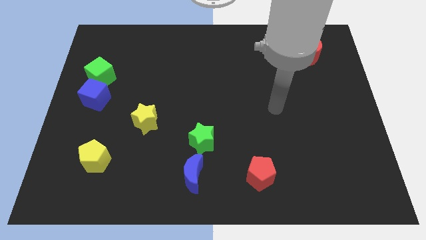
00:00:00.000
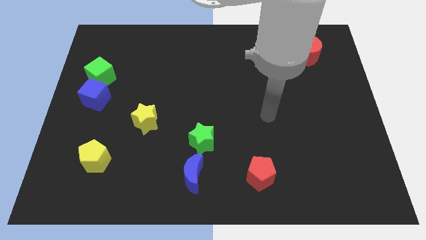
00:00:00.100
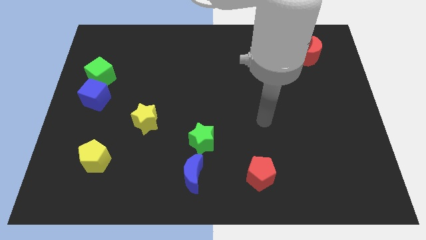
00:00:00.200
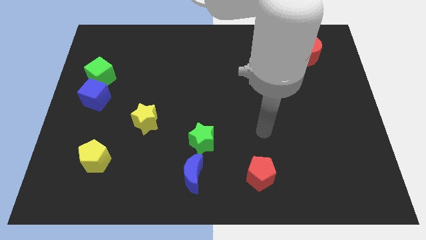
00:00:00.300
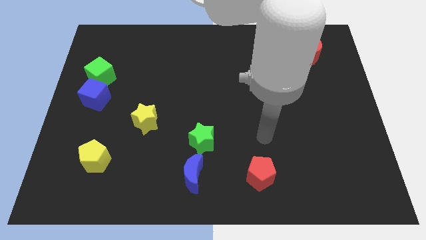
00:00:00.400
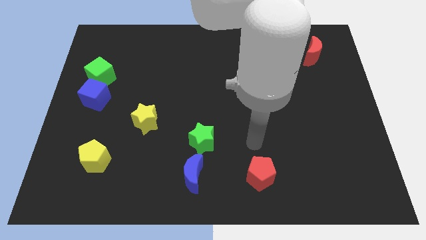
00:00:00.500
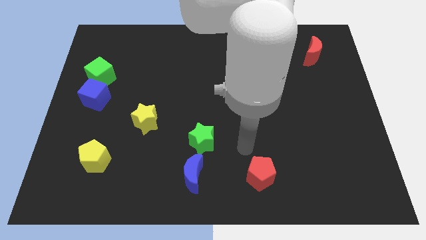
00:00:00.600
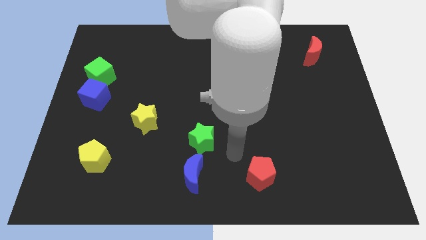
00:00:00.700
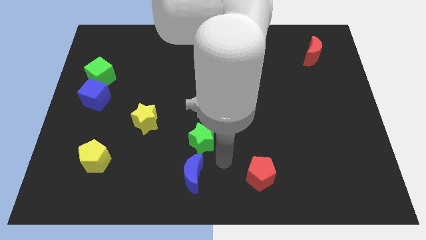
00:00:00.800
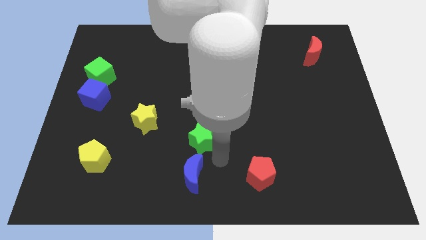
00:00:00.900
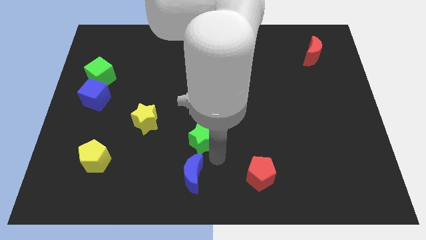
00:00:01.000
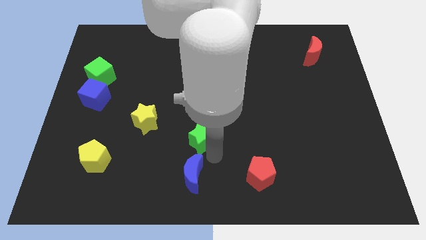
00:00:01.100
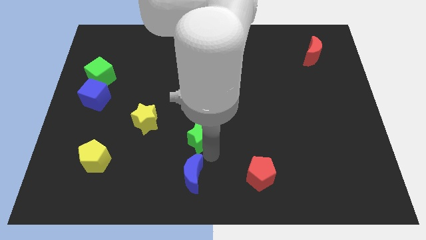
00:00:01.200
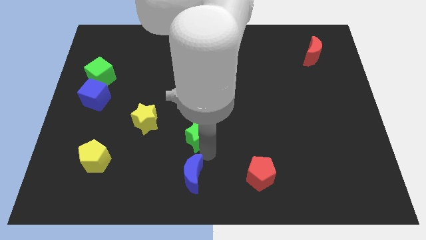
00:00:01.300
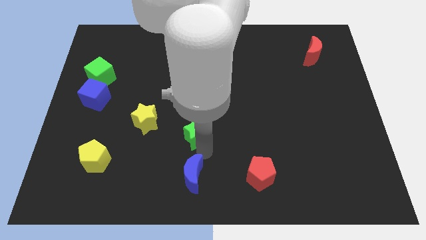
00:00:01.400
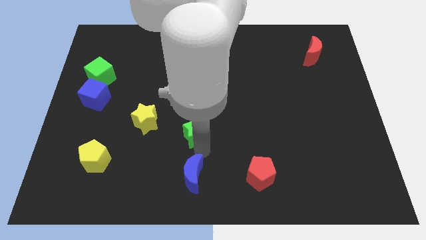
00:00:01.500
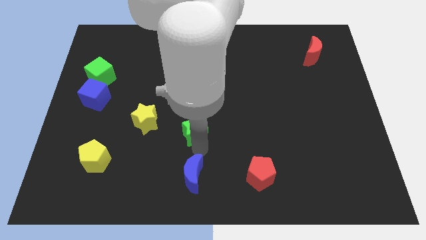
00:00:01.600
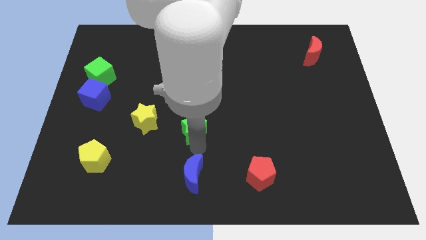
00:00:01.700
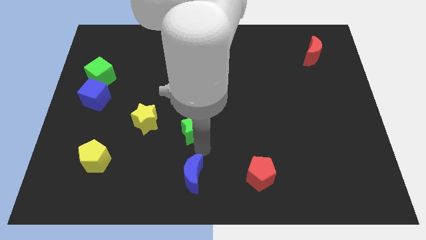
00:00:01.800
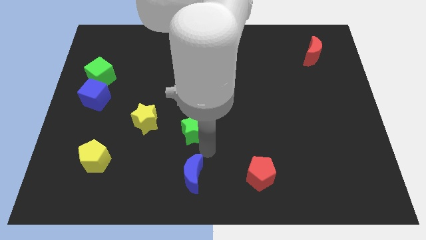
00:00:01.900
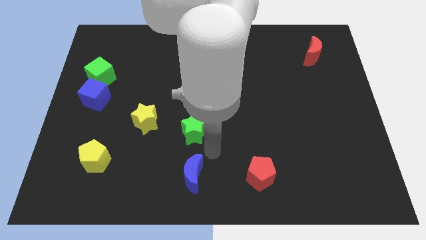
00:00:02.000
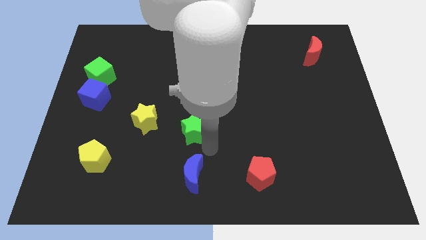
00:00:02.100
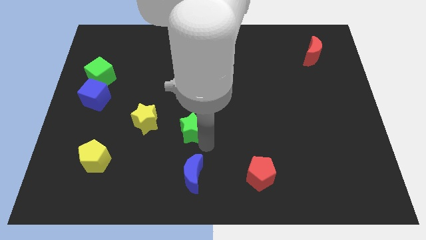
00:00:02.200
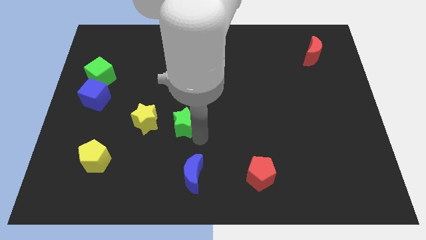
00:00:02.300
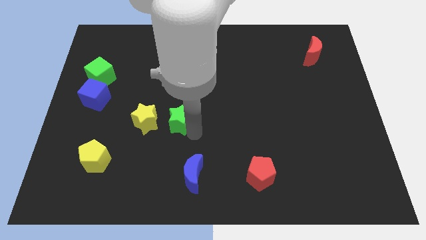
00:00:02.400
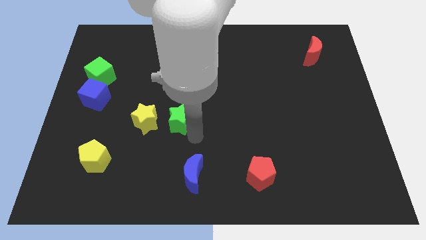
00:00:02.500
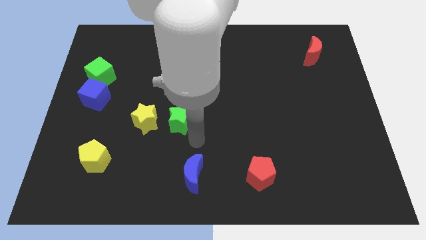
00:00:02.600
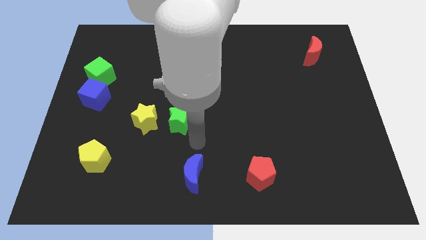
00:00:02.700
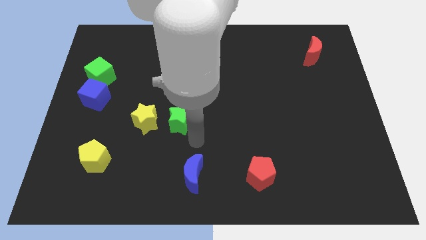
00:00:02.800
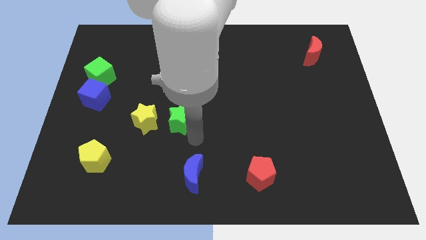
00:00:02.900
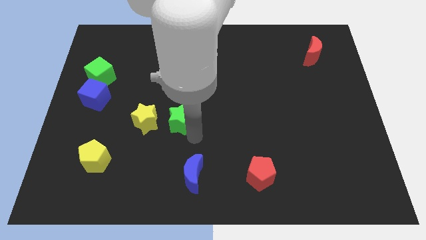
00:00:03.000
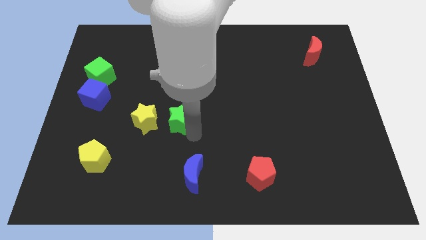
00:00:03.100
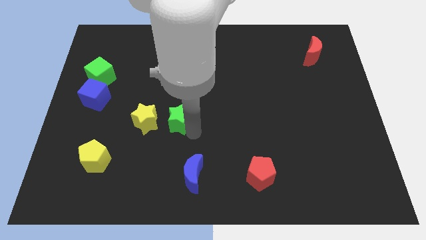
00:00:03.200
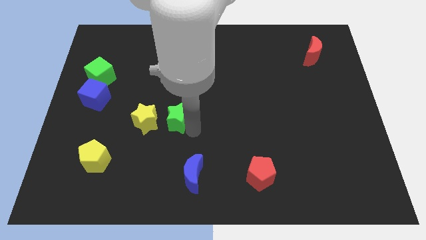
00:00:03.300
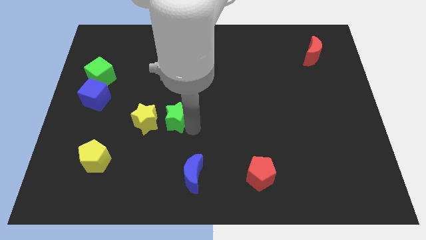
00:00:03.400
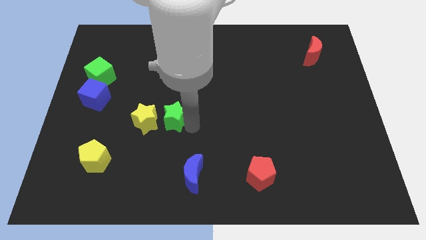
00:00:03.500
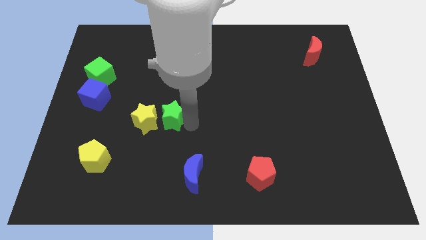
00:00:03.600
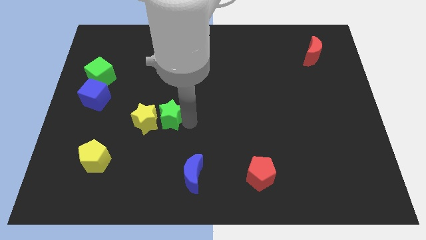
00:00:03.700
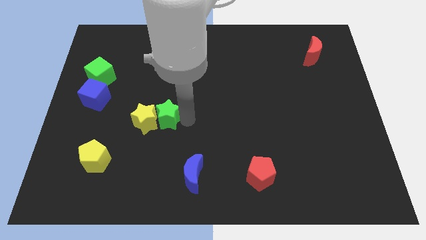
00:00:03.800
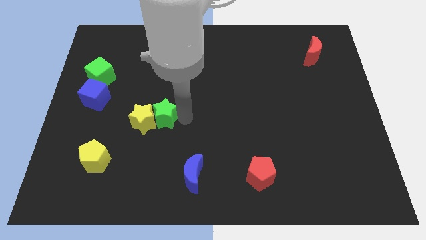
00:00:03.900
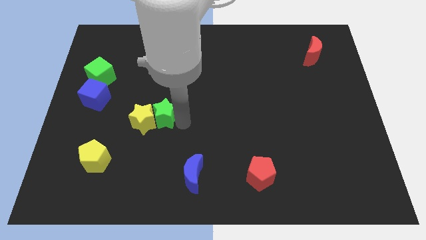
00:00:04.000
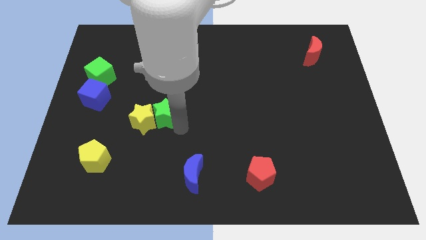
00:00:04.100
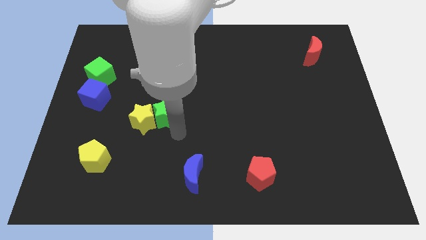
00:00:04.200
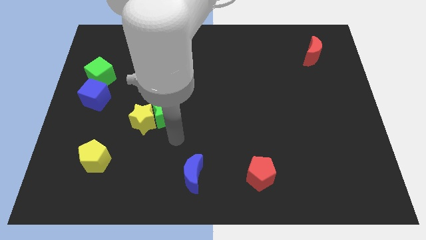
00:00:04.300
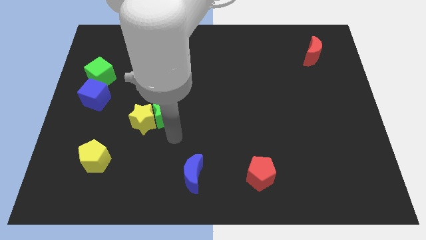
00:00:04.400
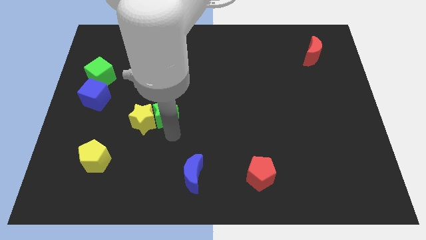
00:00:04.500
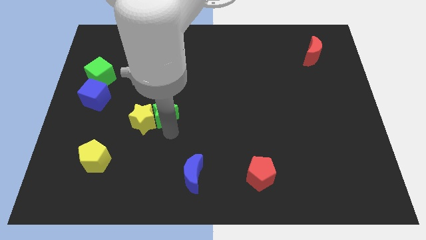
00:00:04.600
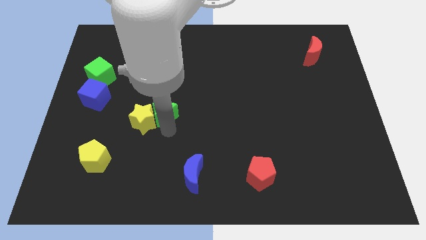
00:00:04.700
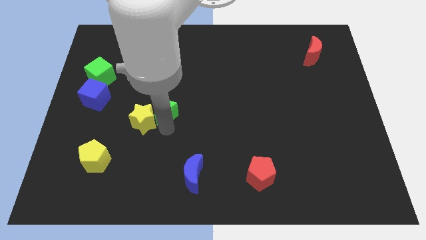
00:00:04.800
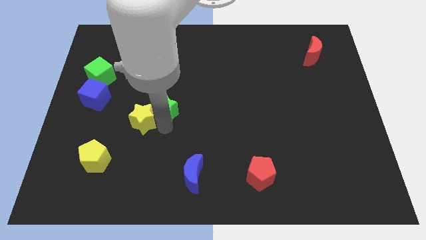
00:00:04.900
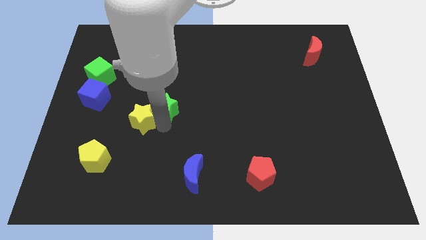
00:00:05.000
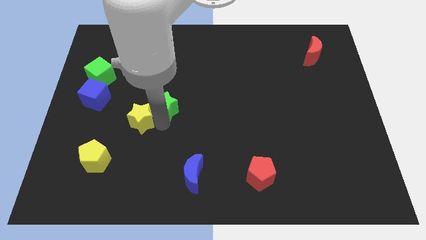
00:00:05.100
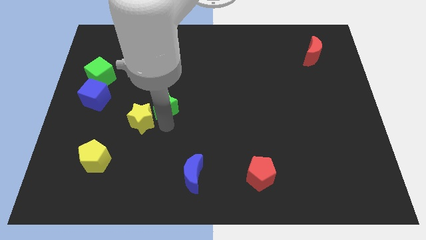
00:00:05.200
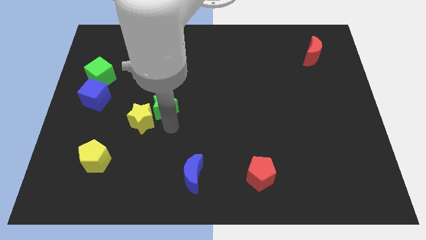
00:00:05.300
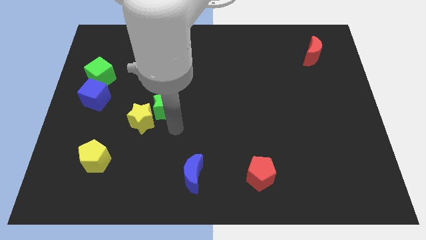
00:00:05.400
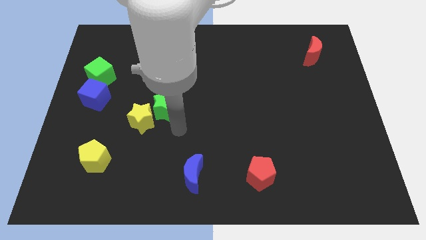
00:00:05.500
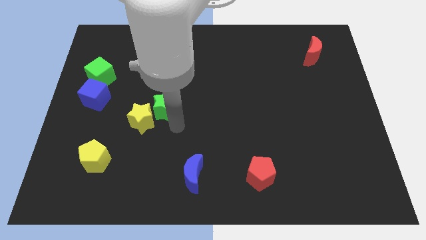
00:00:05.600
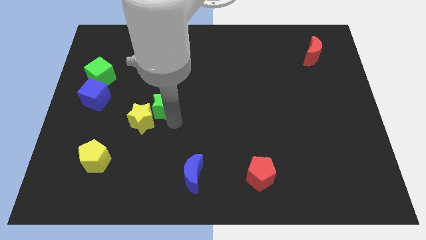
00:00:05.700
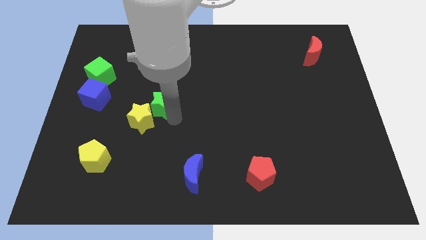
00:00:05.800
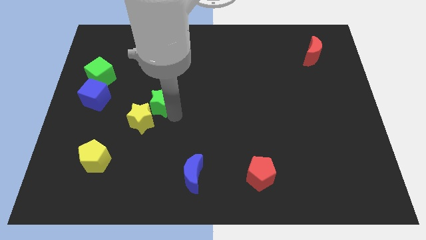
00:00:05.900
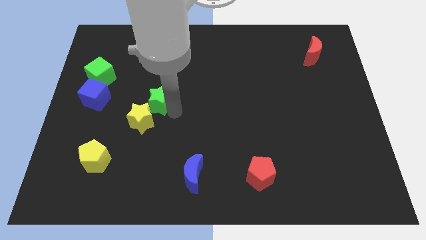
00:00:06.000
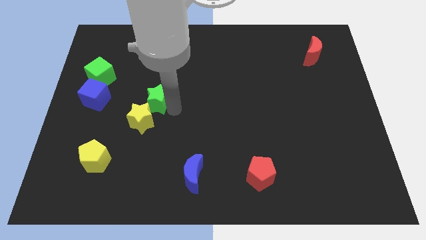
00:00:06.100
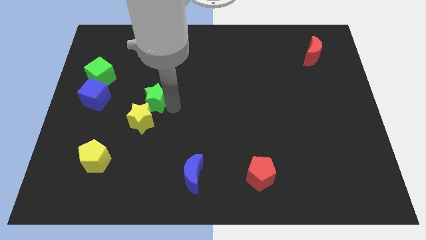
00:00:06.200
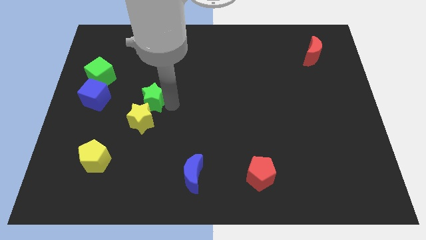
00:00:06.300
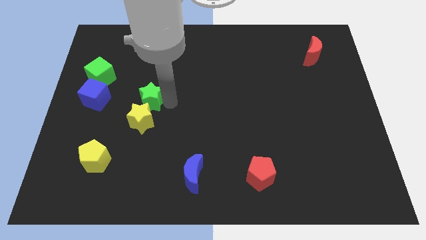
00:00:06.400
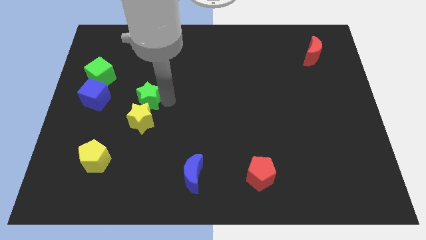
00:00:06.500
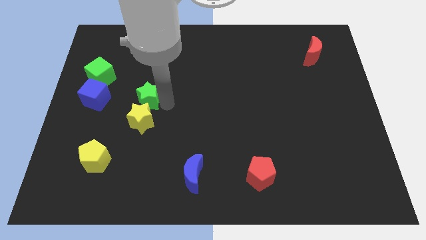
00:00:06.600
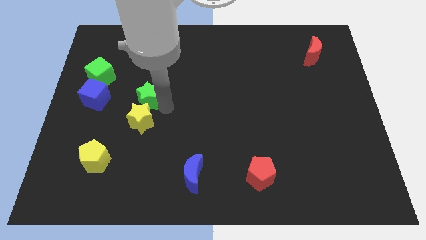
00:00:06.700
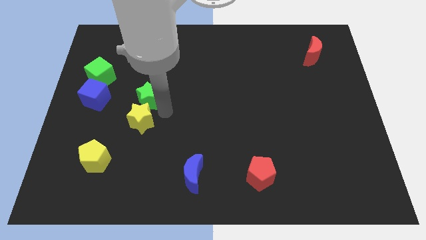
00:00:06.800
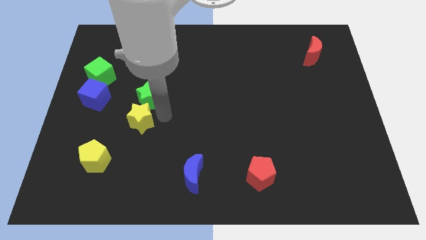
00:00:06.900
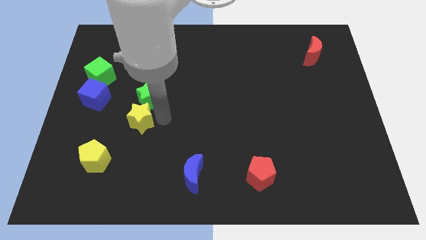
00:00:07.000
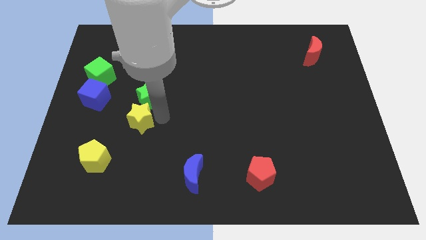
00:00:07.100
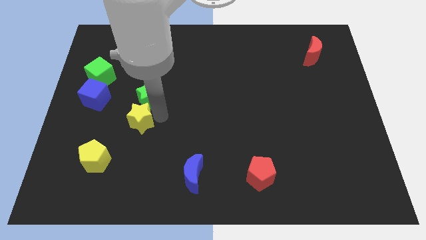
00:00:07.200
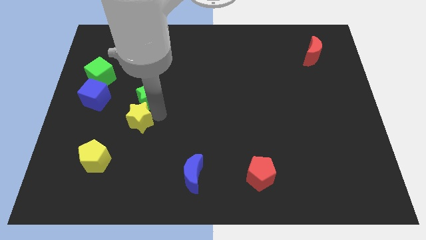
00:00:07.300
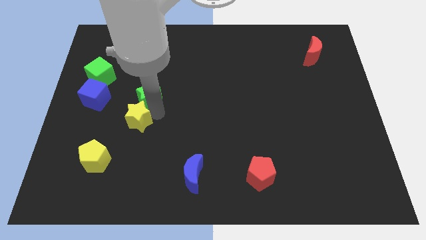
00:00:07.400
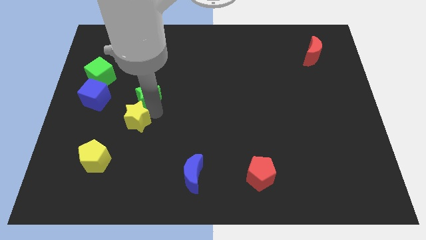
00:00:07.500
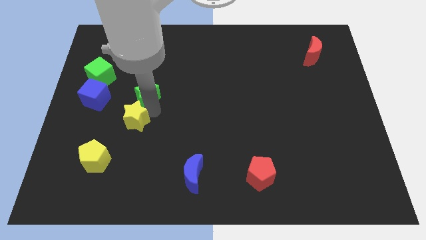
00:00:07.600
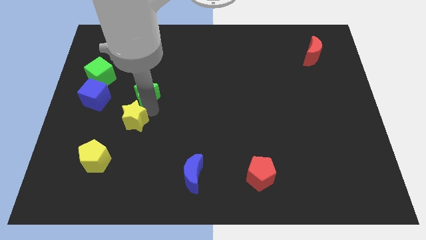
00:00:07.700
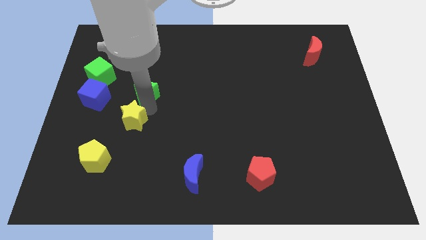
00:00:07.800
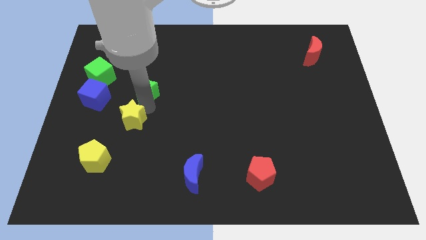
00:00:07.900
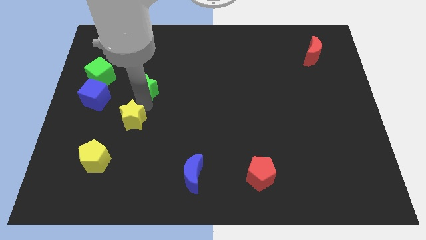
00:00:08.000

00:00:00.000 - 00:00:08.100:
slide the green star upwards and left diagonally

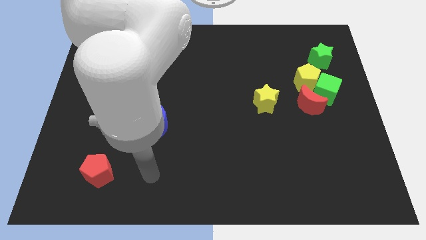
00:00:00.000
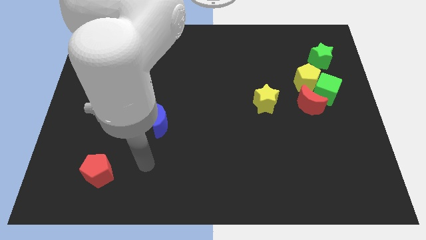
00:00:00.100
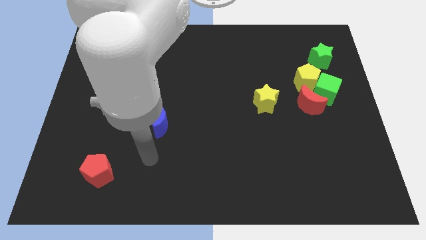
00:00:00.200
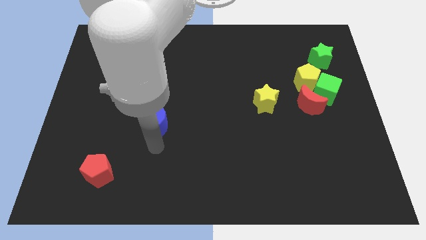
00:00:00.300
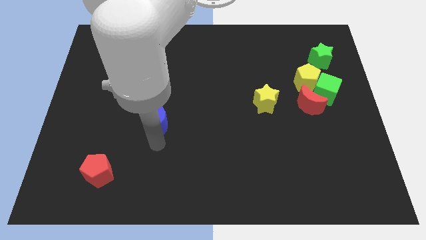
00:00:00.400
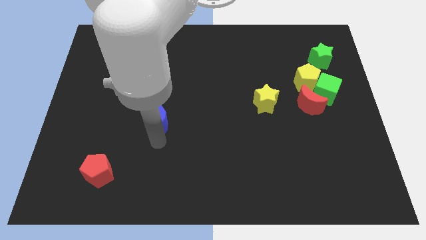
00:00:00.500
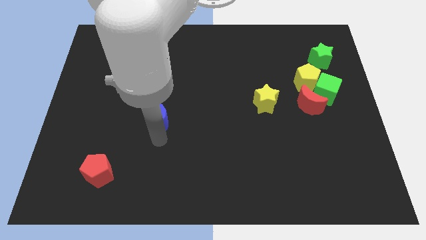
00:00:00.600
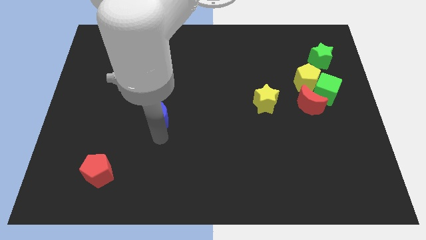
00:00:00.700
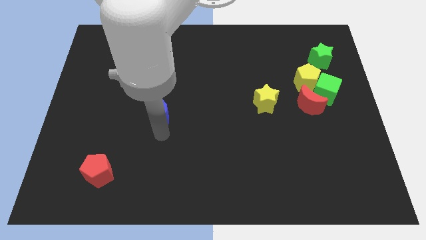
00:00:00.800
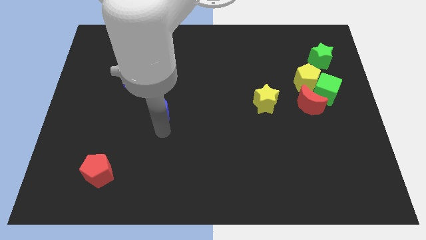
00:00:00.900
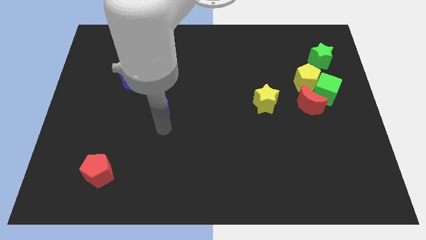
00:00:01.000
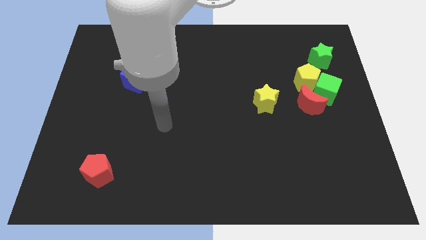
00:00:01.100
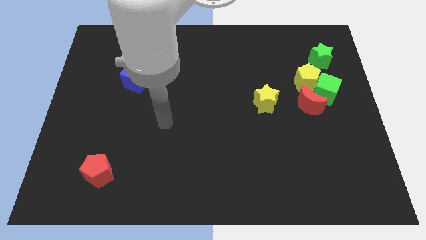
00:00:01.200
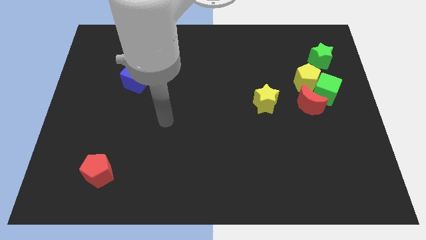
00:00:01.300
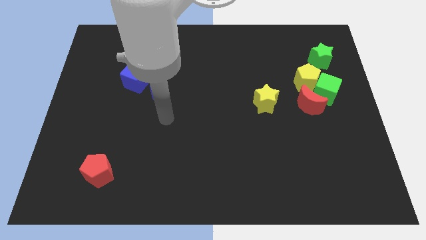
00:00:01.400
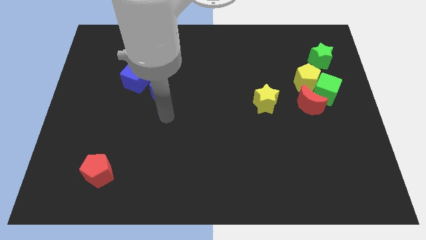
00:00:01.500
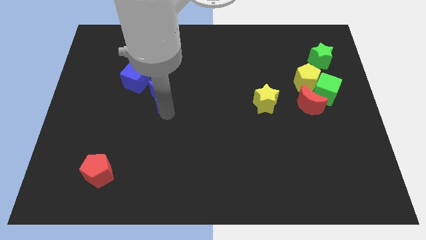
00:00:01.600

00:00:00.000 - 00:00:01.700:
move the blue moon upwards a little
